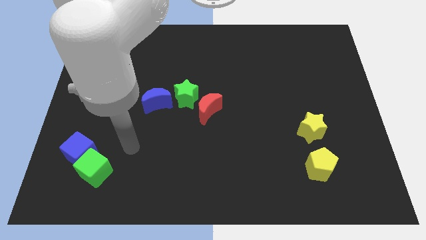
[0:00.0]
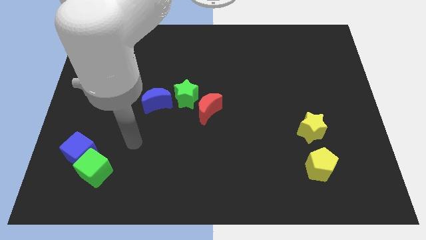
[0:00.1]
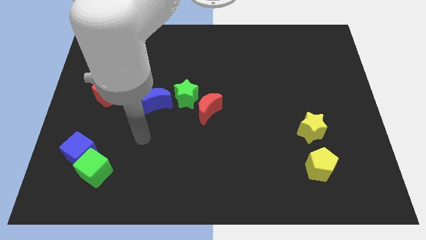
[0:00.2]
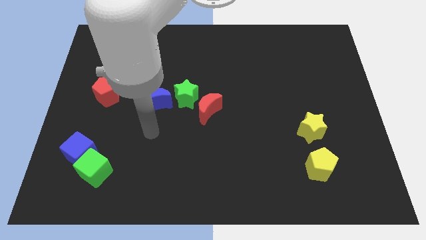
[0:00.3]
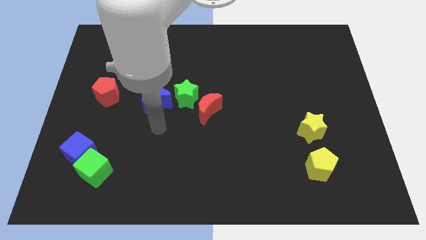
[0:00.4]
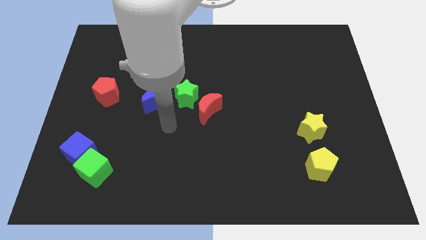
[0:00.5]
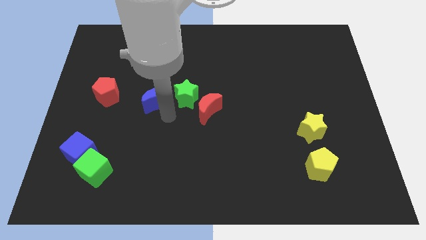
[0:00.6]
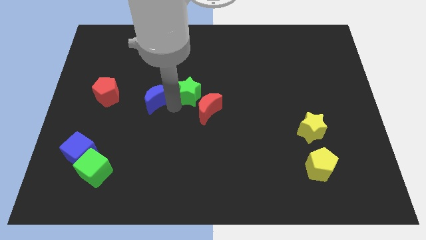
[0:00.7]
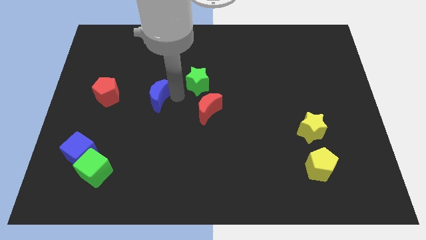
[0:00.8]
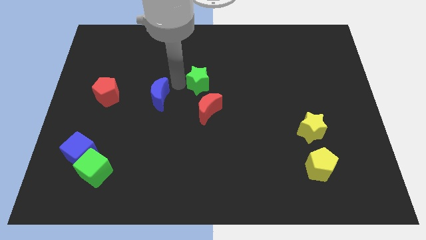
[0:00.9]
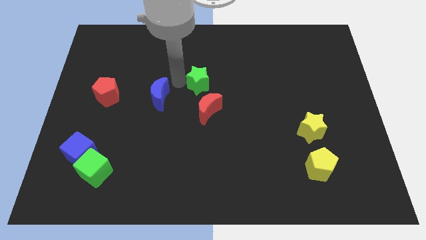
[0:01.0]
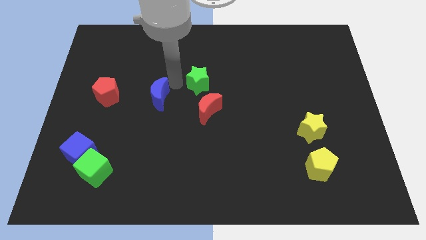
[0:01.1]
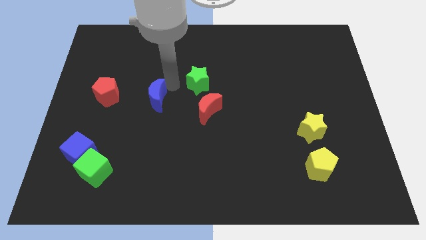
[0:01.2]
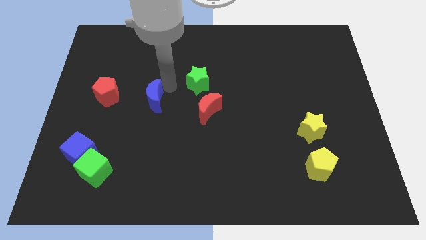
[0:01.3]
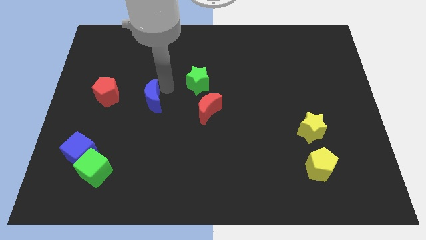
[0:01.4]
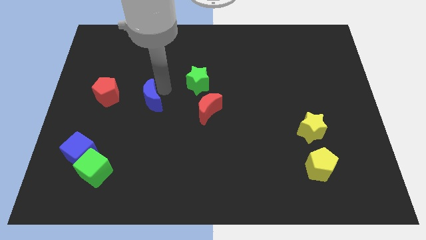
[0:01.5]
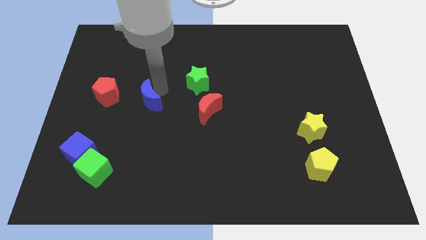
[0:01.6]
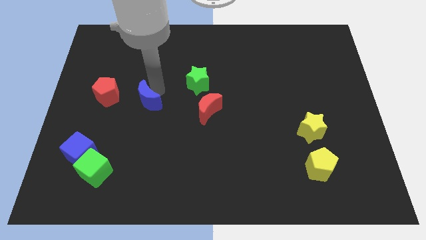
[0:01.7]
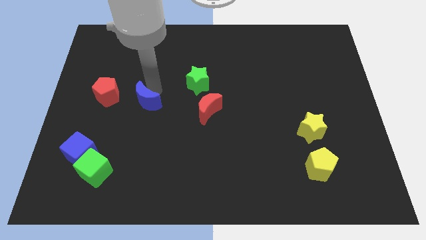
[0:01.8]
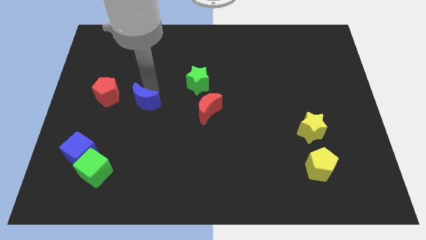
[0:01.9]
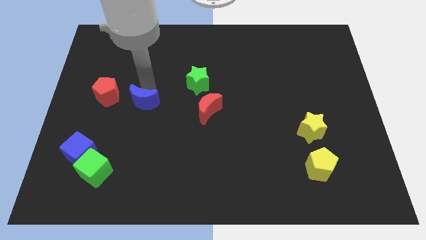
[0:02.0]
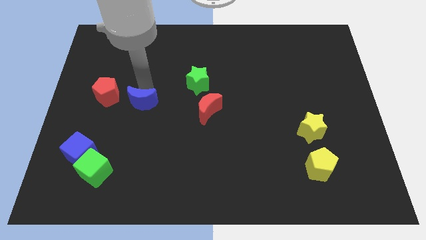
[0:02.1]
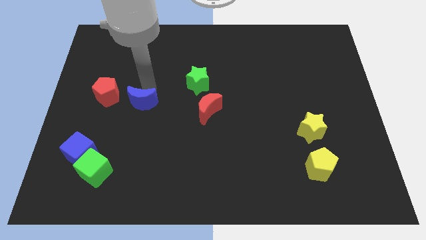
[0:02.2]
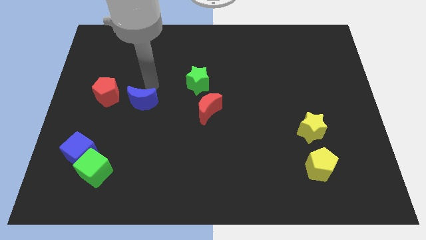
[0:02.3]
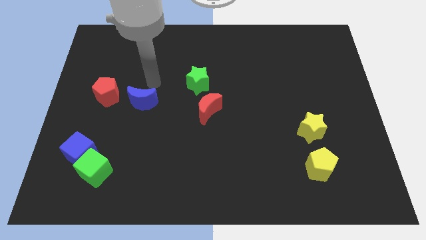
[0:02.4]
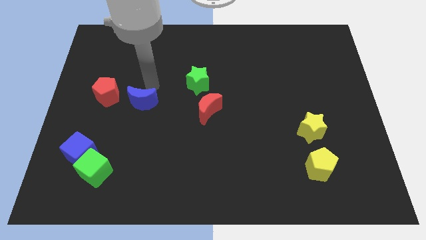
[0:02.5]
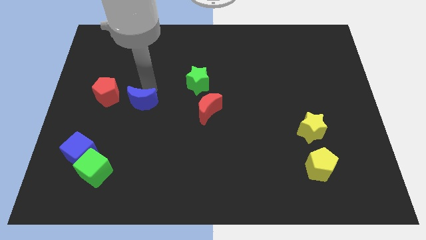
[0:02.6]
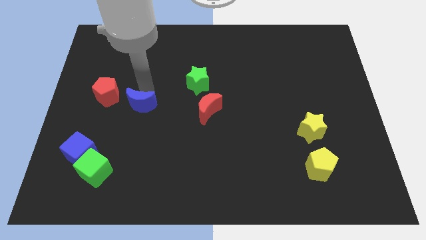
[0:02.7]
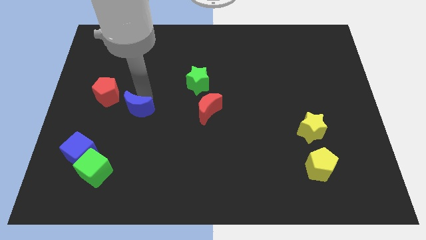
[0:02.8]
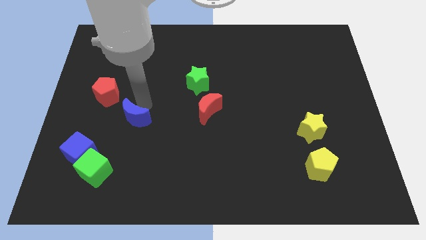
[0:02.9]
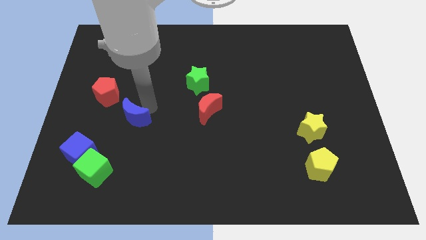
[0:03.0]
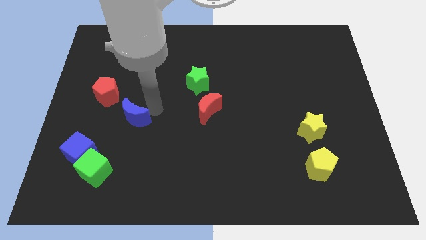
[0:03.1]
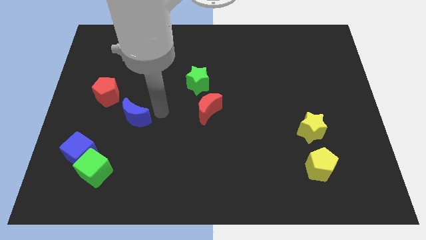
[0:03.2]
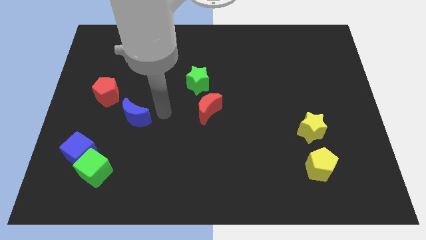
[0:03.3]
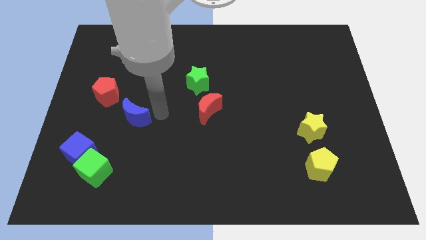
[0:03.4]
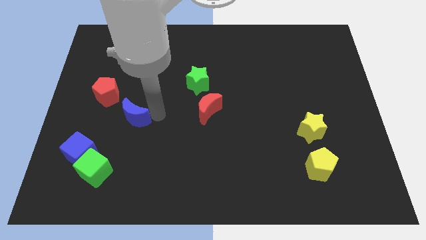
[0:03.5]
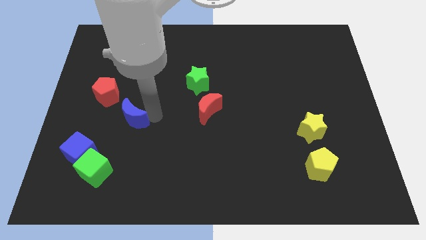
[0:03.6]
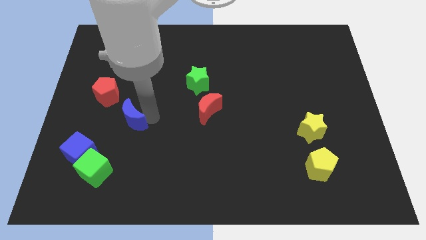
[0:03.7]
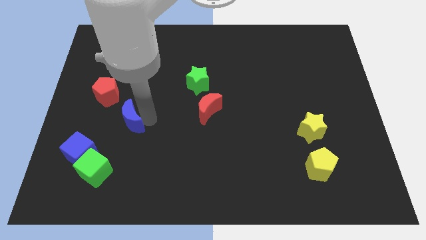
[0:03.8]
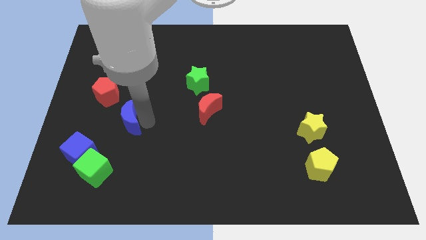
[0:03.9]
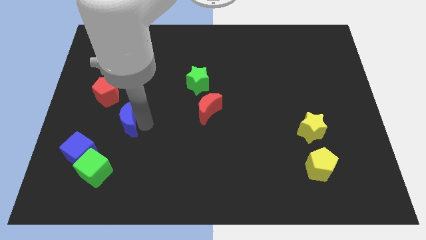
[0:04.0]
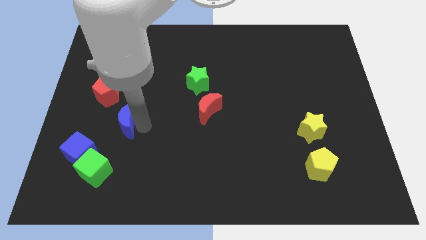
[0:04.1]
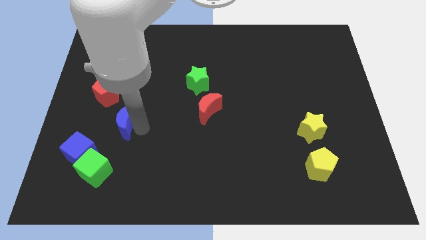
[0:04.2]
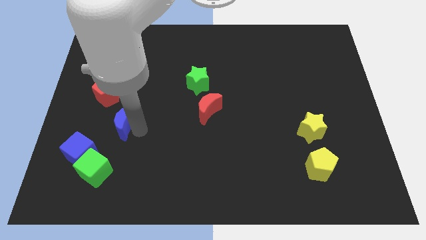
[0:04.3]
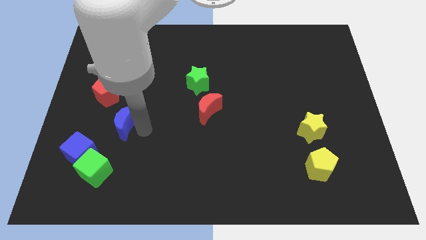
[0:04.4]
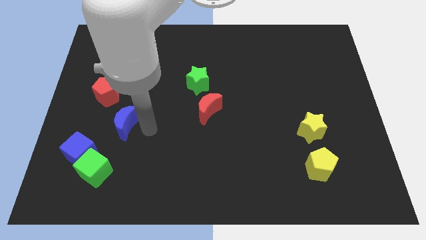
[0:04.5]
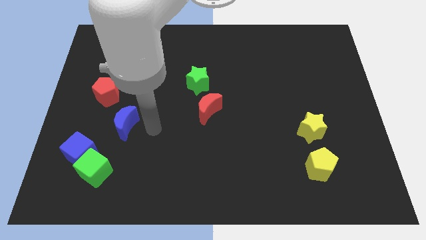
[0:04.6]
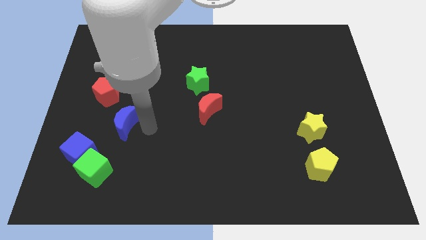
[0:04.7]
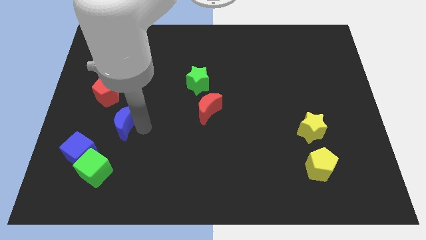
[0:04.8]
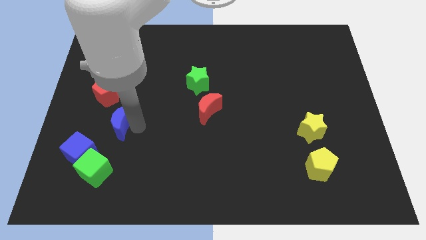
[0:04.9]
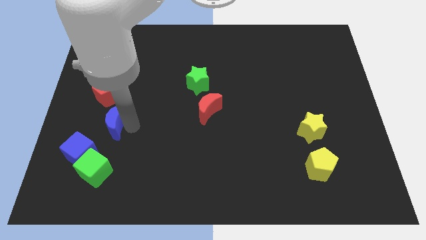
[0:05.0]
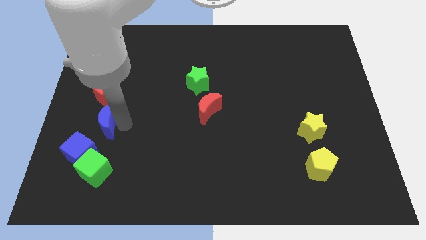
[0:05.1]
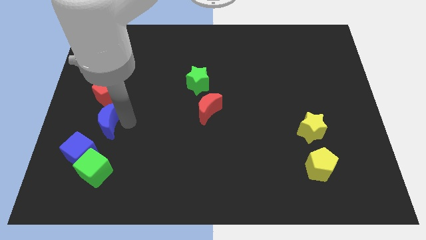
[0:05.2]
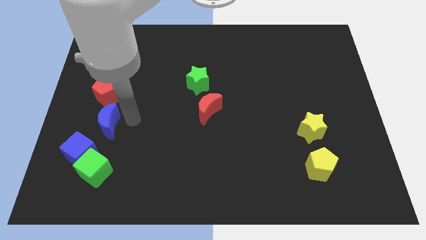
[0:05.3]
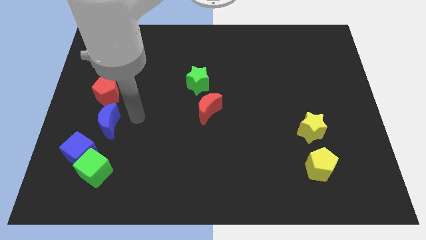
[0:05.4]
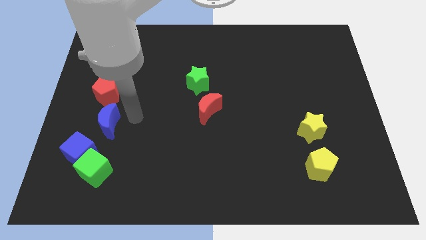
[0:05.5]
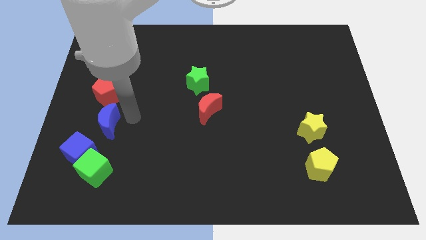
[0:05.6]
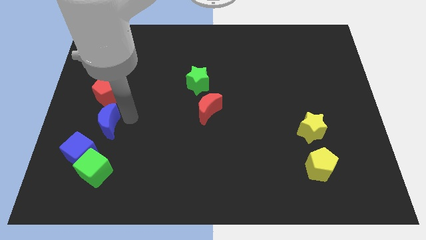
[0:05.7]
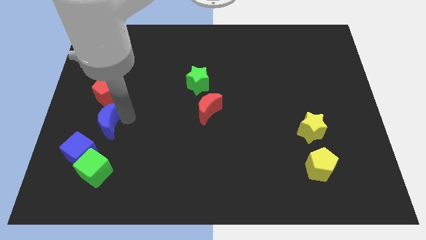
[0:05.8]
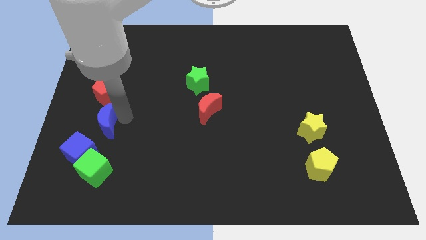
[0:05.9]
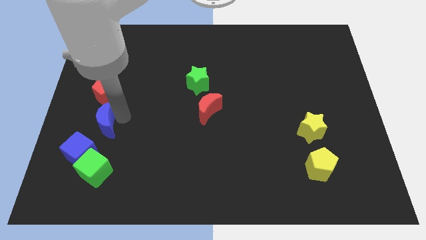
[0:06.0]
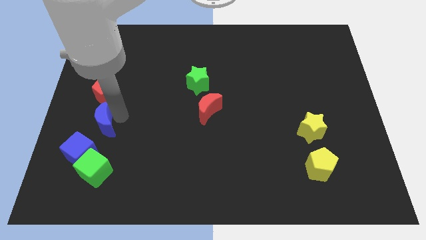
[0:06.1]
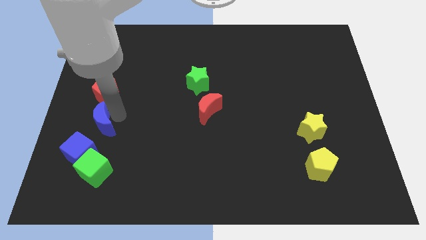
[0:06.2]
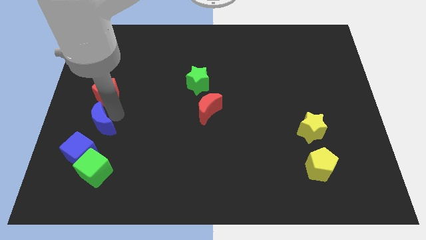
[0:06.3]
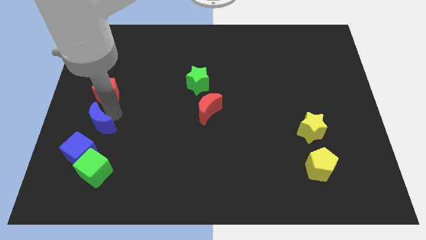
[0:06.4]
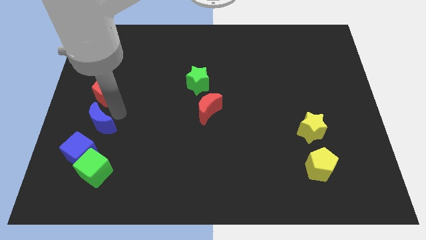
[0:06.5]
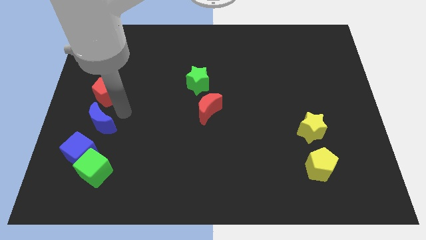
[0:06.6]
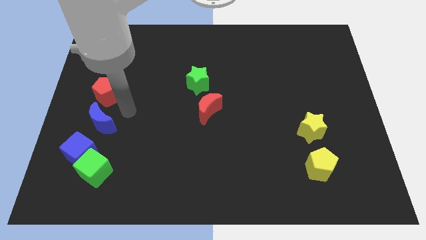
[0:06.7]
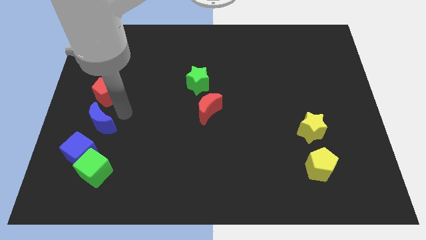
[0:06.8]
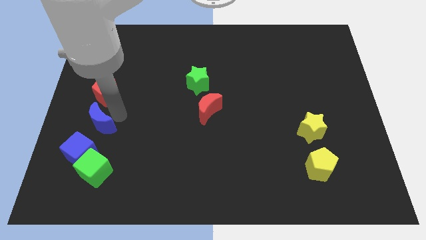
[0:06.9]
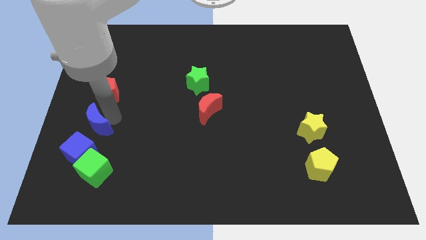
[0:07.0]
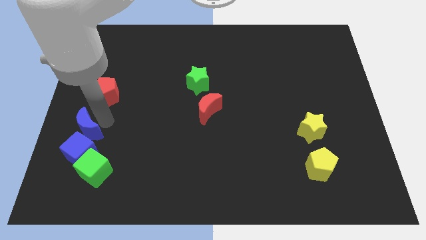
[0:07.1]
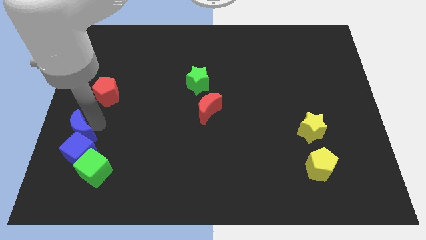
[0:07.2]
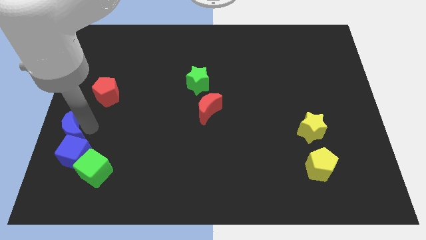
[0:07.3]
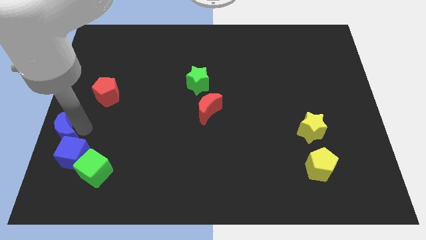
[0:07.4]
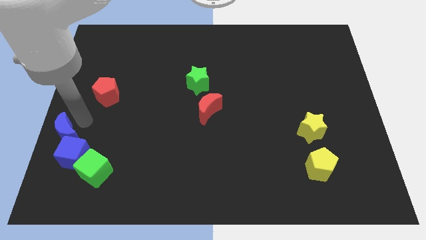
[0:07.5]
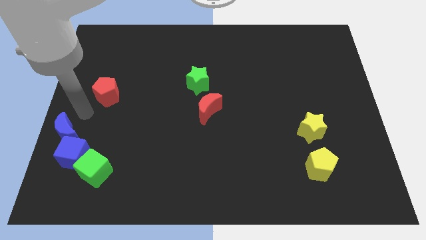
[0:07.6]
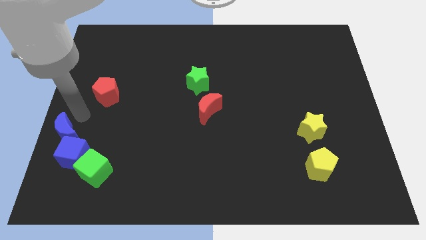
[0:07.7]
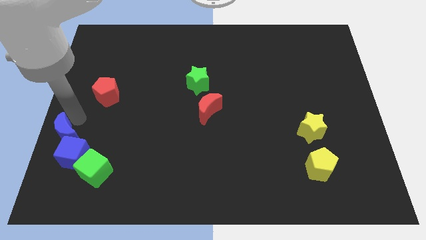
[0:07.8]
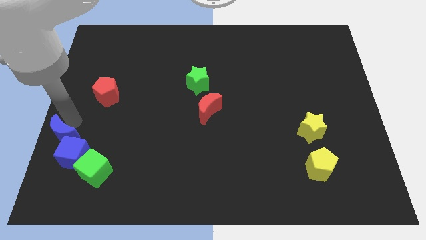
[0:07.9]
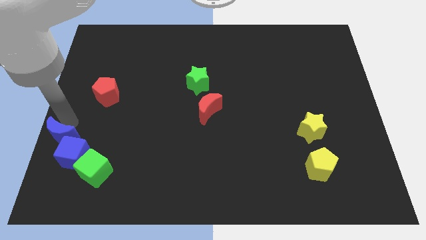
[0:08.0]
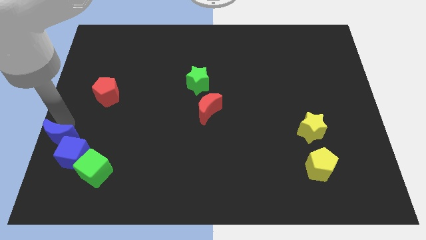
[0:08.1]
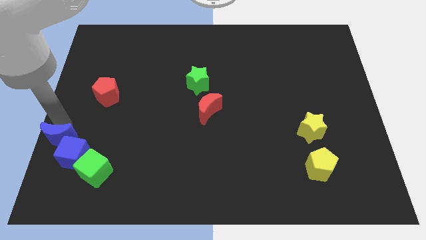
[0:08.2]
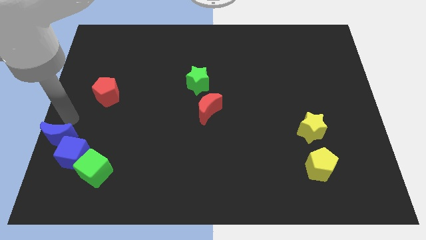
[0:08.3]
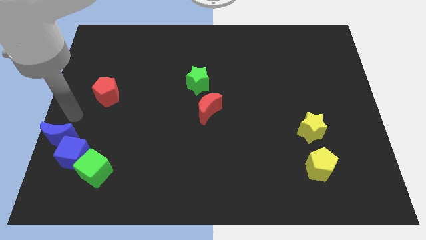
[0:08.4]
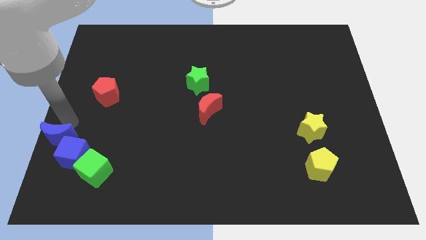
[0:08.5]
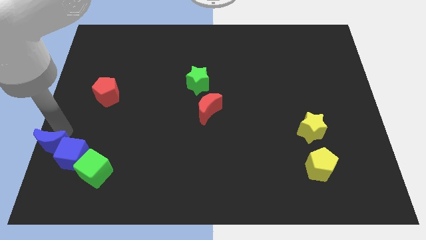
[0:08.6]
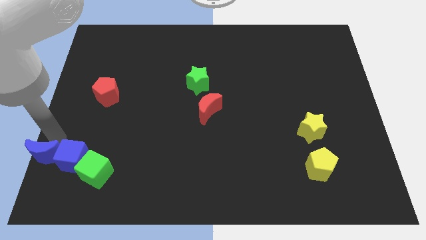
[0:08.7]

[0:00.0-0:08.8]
slide the blue moon to the bottom left corner
